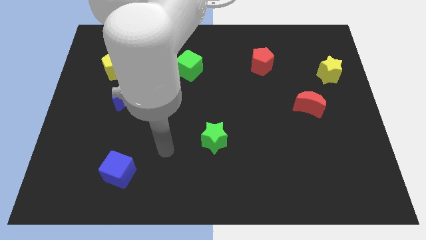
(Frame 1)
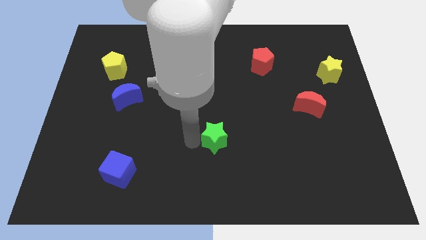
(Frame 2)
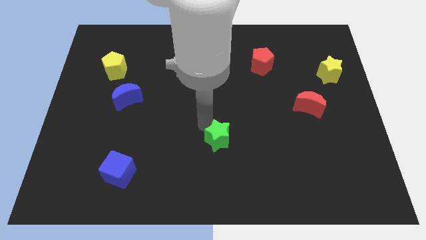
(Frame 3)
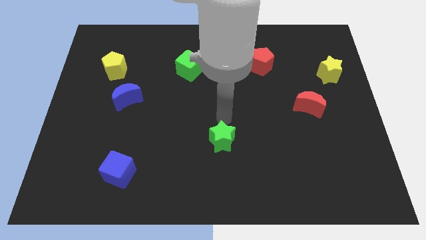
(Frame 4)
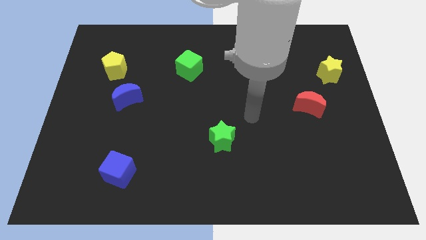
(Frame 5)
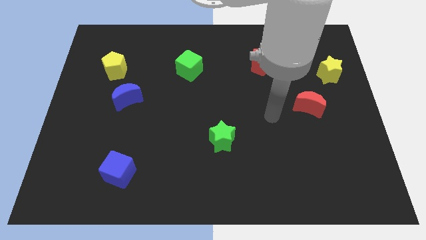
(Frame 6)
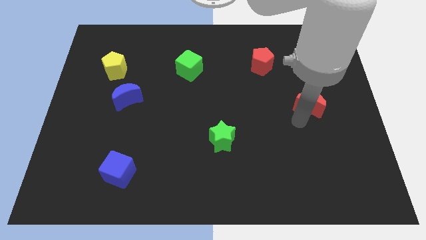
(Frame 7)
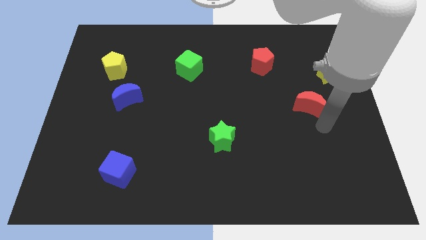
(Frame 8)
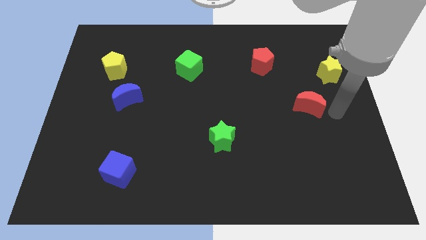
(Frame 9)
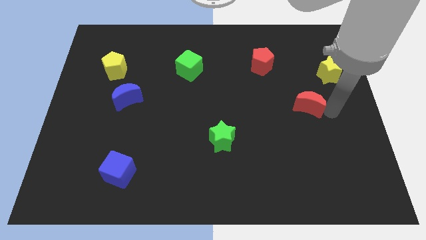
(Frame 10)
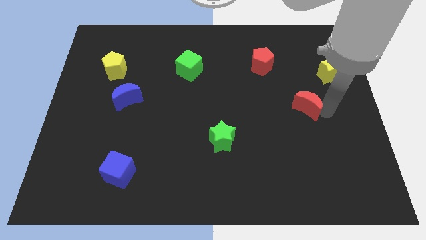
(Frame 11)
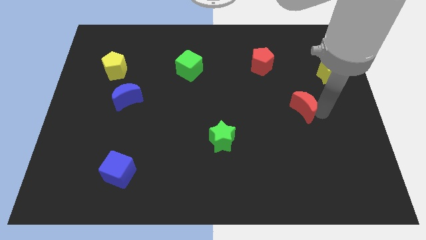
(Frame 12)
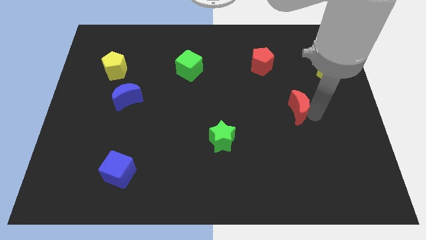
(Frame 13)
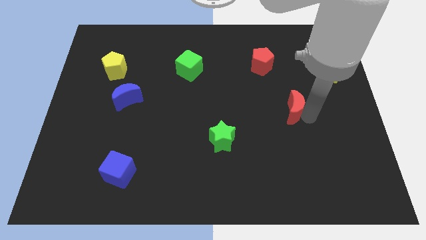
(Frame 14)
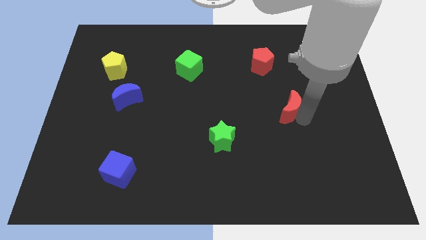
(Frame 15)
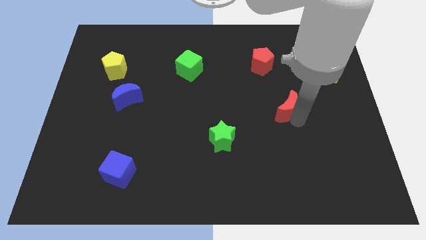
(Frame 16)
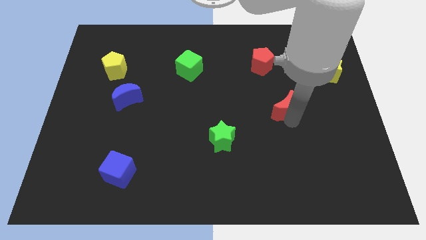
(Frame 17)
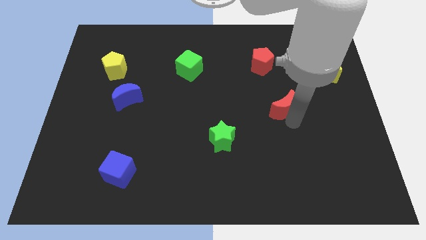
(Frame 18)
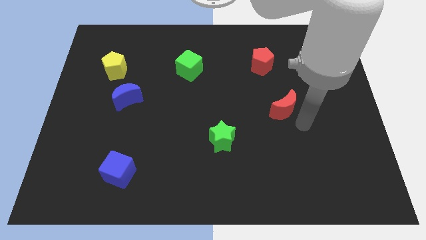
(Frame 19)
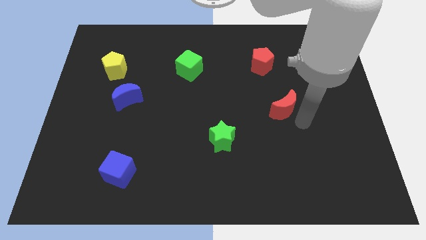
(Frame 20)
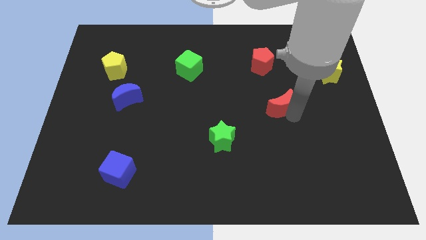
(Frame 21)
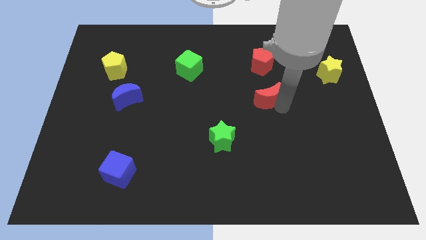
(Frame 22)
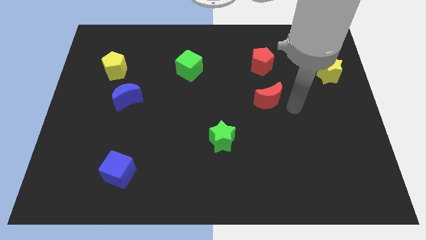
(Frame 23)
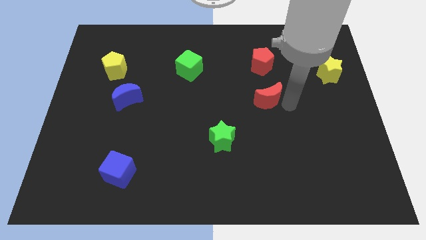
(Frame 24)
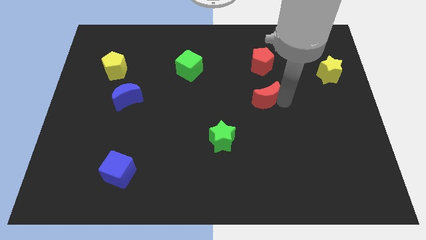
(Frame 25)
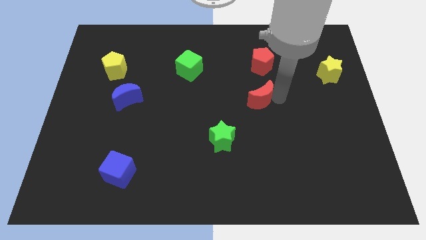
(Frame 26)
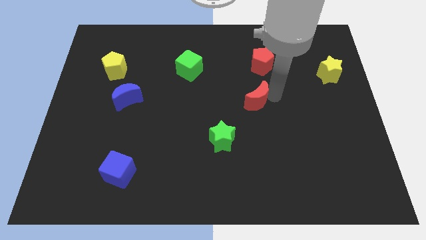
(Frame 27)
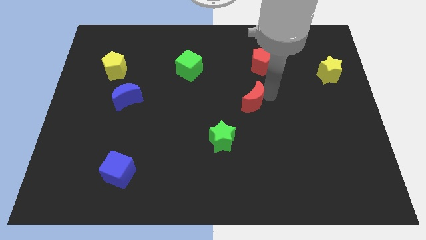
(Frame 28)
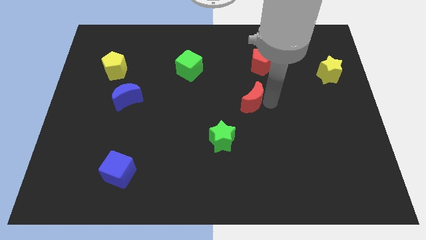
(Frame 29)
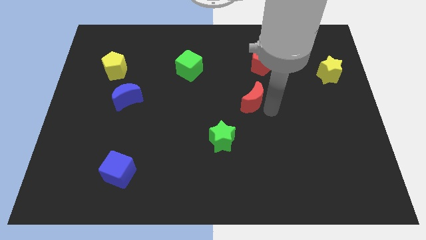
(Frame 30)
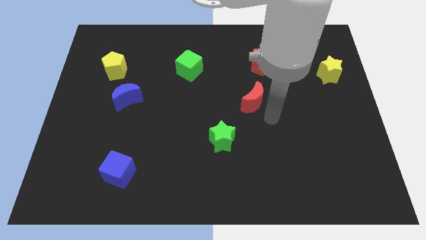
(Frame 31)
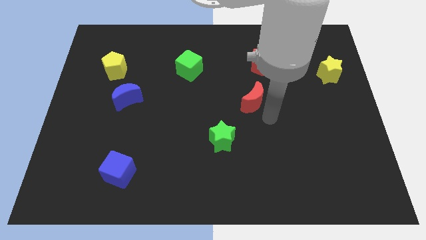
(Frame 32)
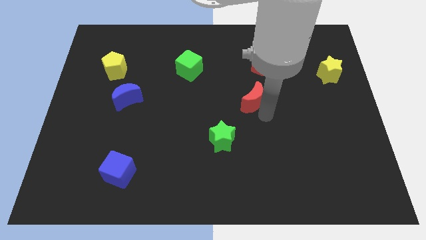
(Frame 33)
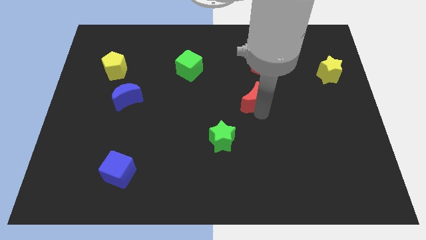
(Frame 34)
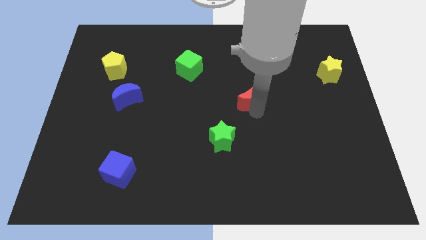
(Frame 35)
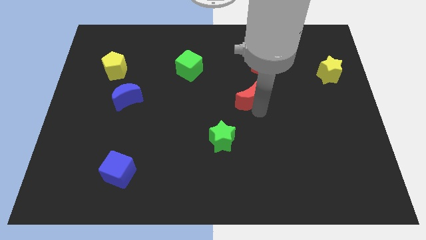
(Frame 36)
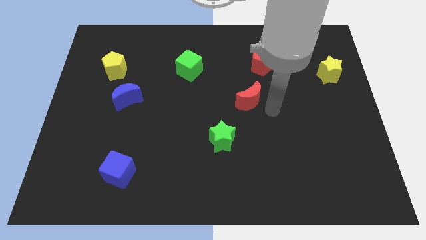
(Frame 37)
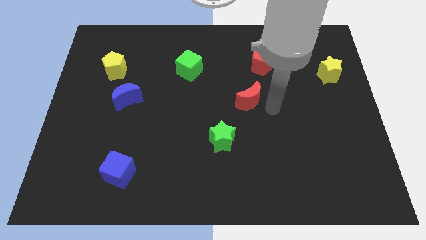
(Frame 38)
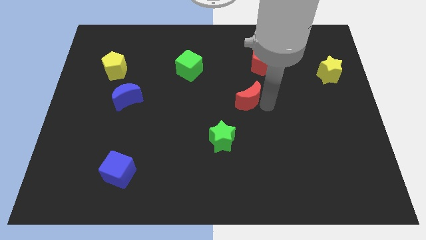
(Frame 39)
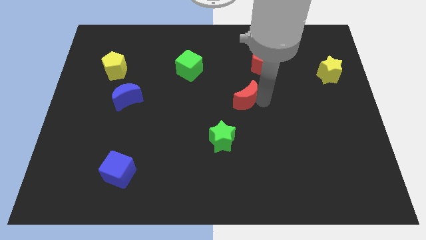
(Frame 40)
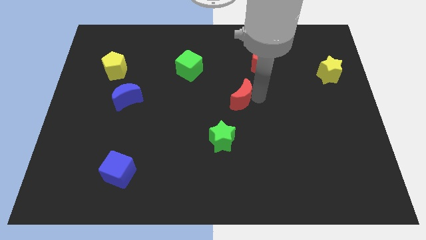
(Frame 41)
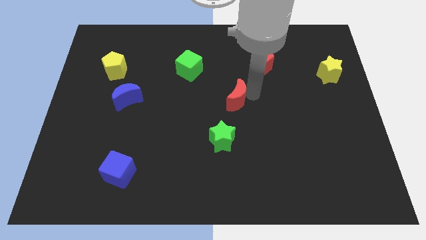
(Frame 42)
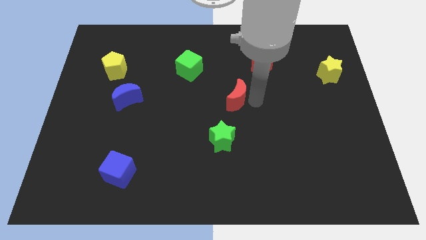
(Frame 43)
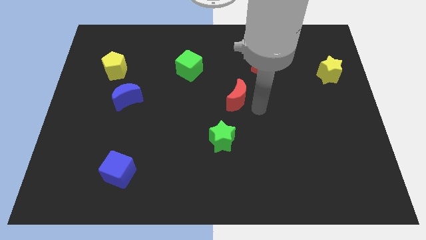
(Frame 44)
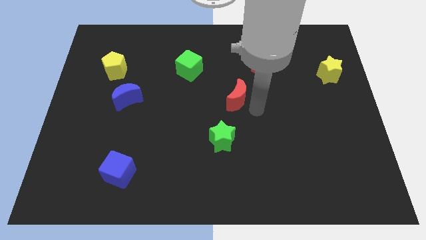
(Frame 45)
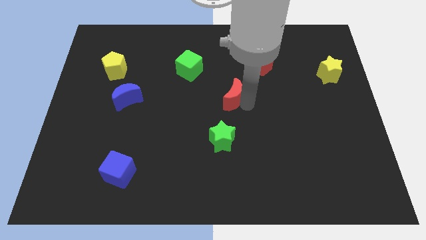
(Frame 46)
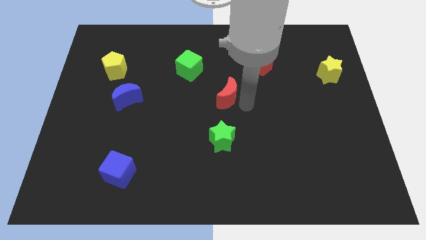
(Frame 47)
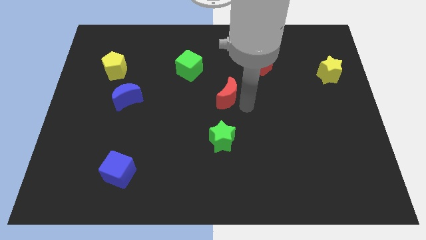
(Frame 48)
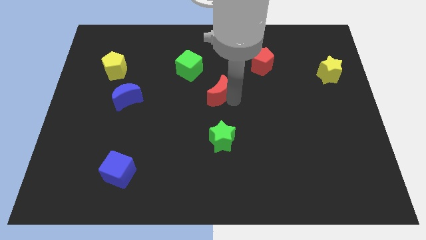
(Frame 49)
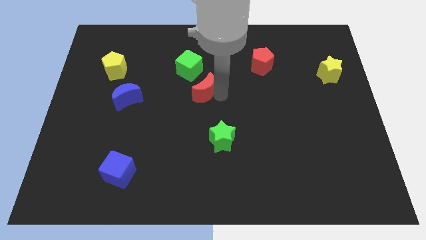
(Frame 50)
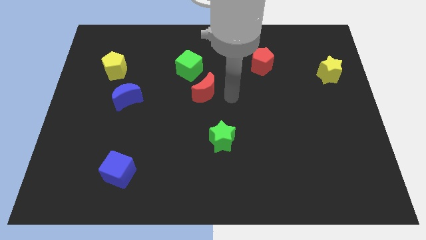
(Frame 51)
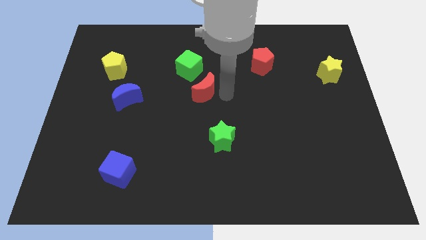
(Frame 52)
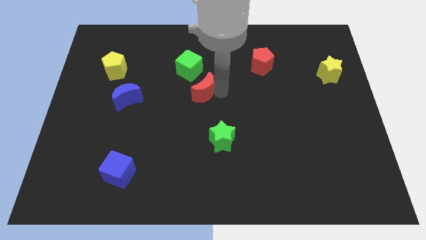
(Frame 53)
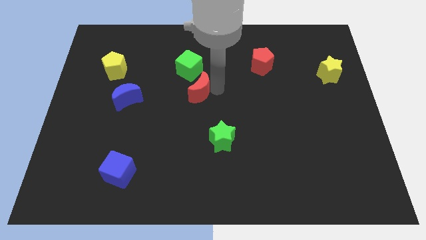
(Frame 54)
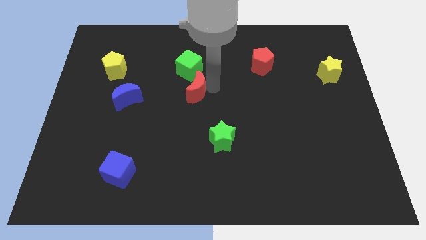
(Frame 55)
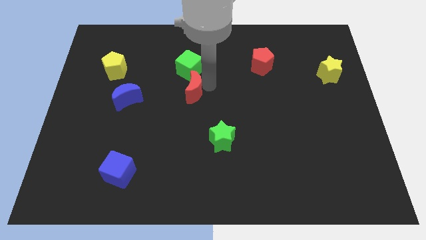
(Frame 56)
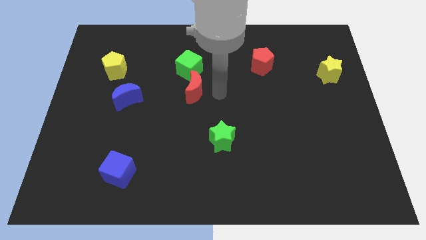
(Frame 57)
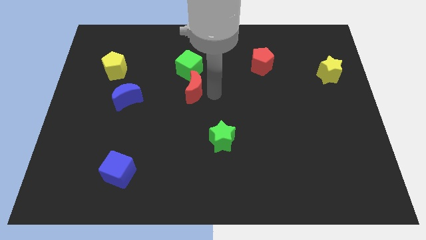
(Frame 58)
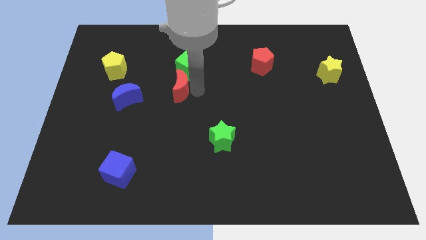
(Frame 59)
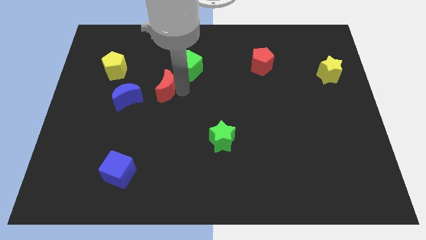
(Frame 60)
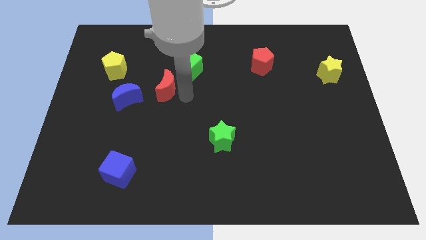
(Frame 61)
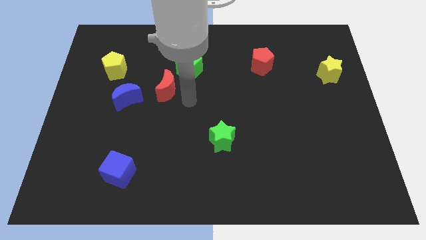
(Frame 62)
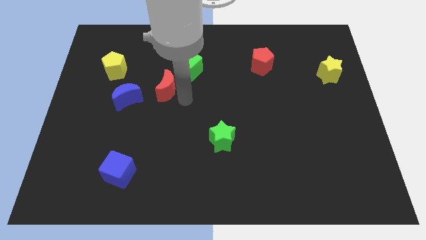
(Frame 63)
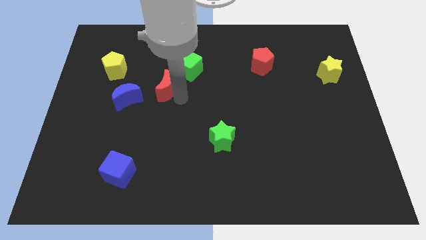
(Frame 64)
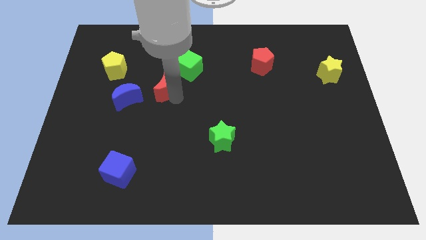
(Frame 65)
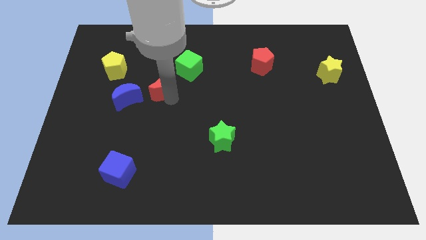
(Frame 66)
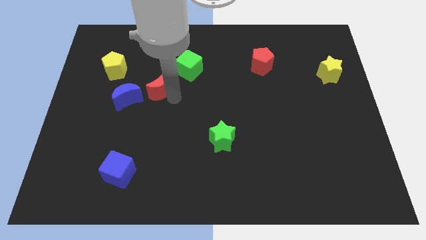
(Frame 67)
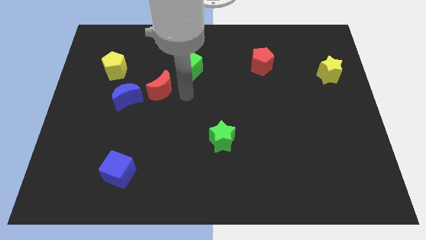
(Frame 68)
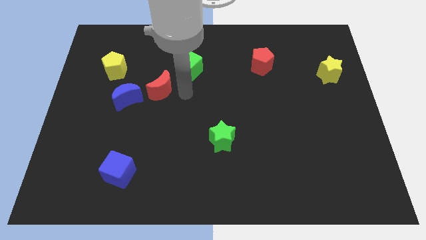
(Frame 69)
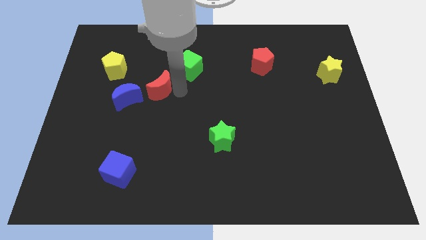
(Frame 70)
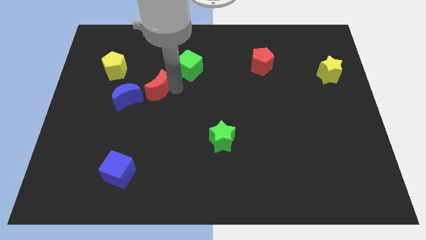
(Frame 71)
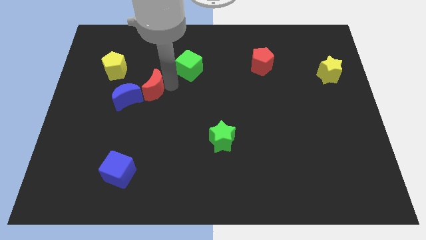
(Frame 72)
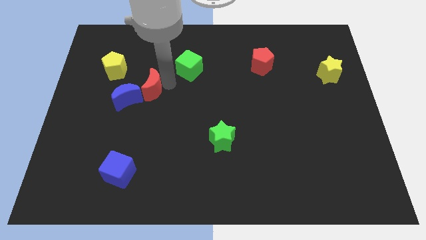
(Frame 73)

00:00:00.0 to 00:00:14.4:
put the red moon to the bottom right side of the yellow pentagon
